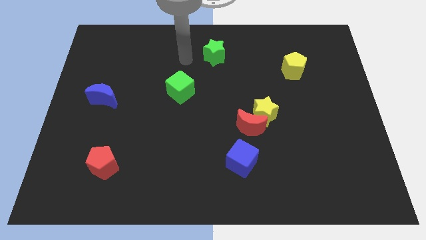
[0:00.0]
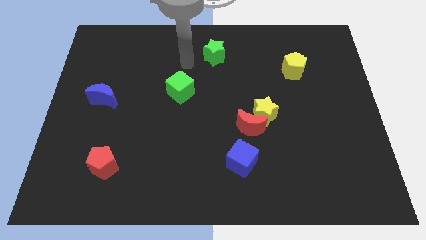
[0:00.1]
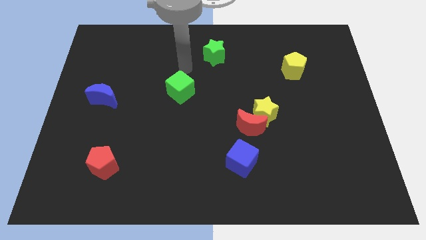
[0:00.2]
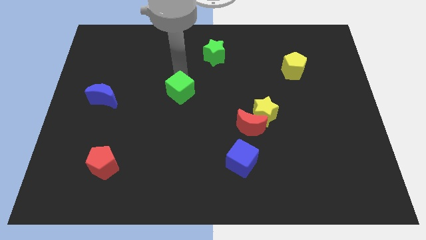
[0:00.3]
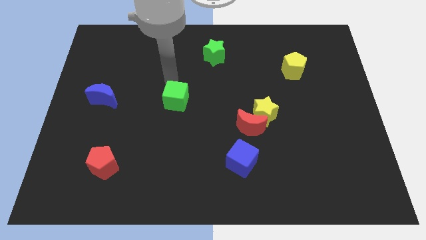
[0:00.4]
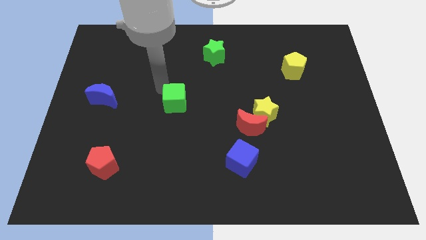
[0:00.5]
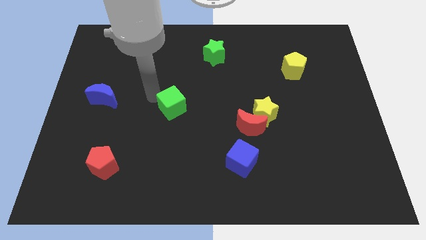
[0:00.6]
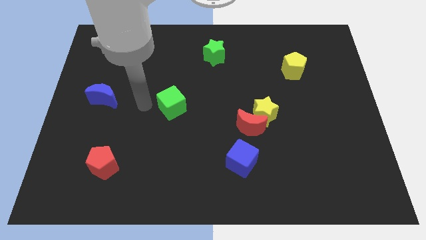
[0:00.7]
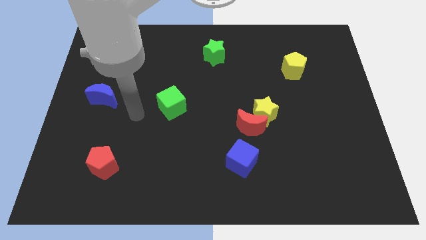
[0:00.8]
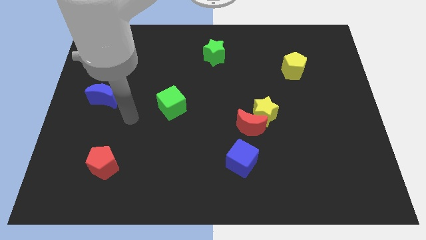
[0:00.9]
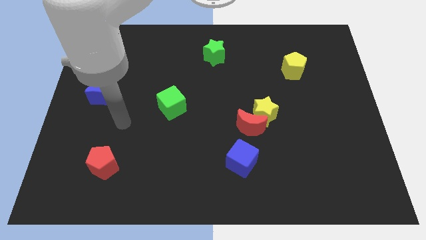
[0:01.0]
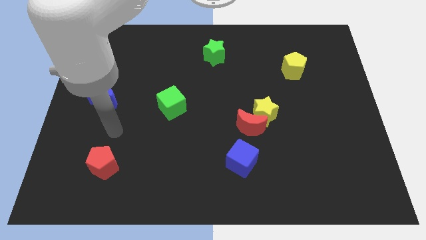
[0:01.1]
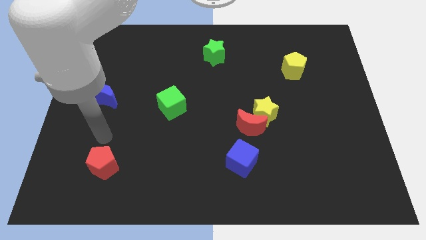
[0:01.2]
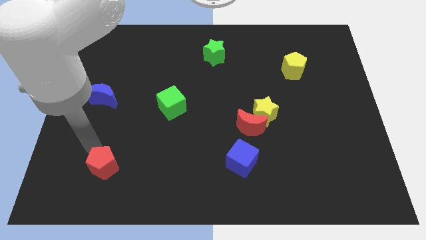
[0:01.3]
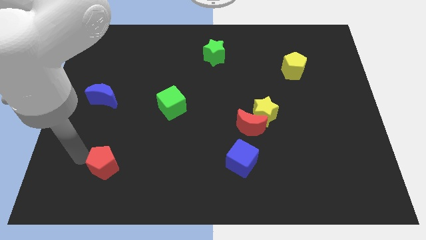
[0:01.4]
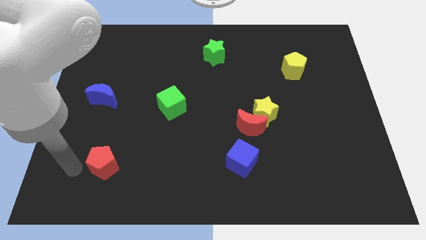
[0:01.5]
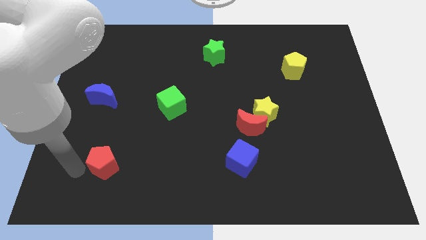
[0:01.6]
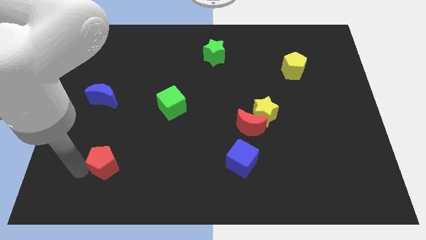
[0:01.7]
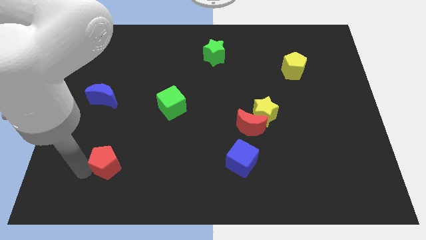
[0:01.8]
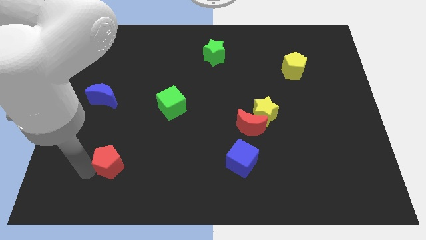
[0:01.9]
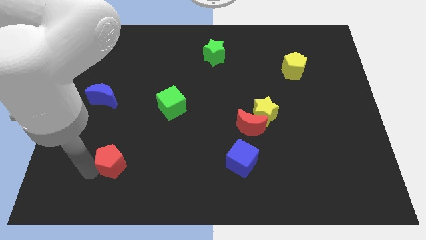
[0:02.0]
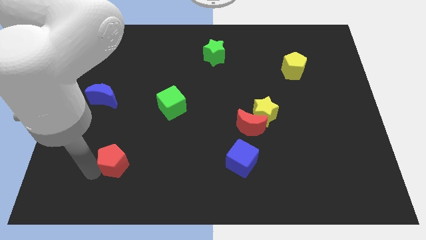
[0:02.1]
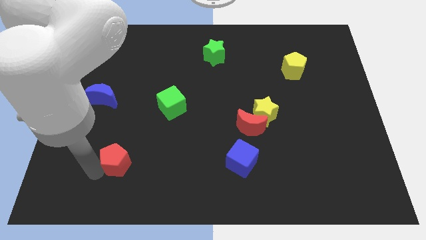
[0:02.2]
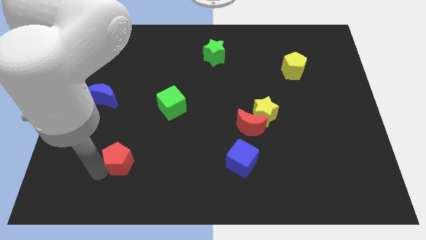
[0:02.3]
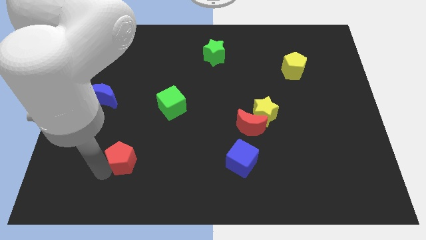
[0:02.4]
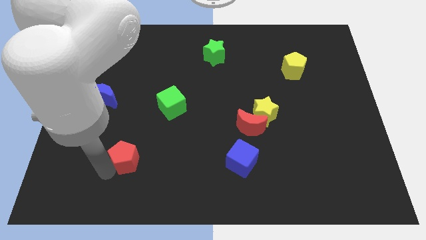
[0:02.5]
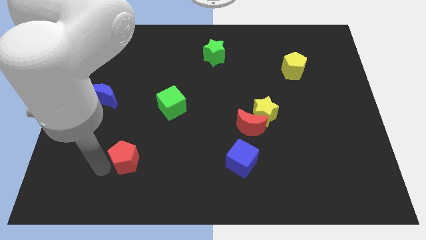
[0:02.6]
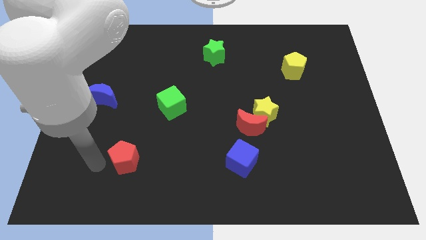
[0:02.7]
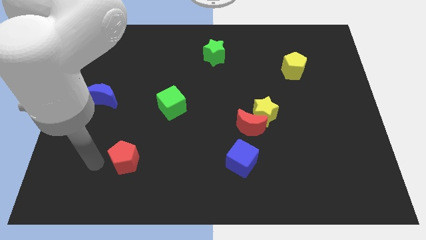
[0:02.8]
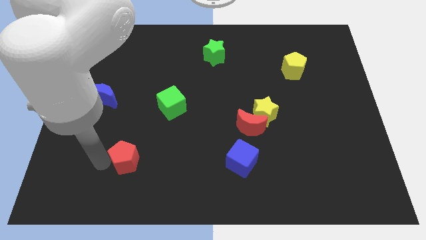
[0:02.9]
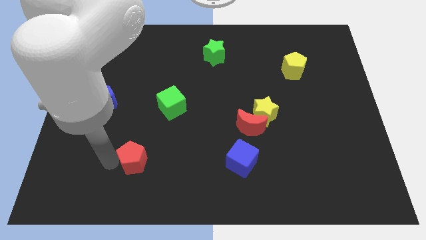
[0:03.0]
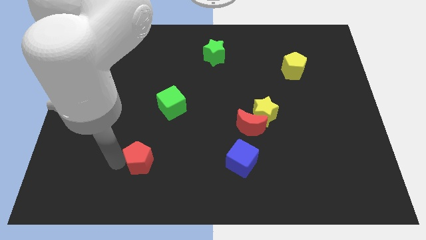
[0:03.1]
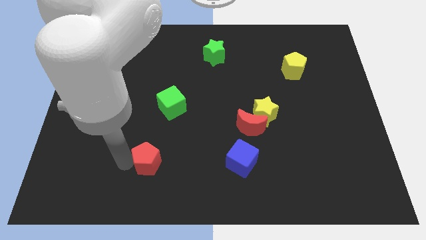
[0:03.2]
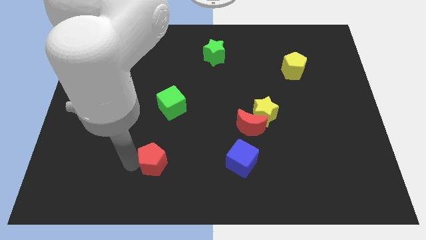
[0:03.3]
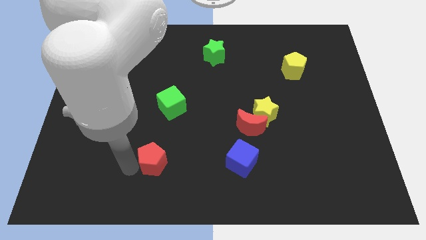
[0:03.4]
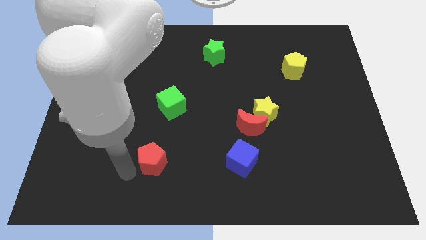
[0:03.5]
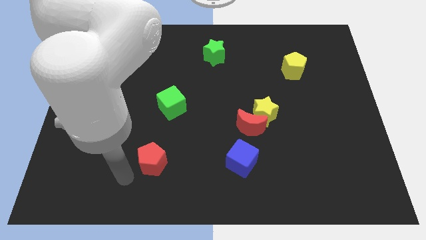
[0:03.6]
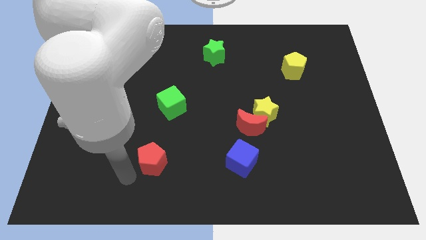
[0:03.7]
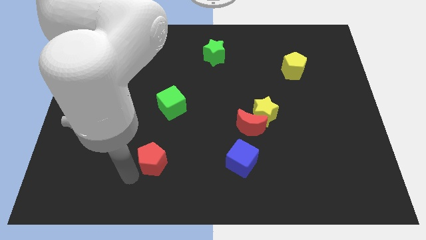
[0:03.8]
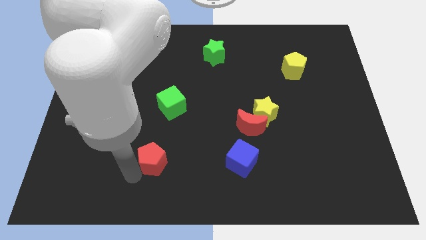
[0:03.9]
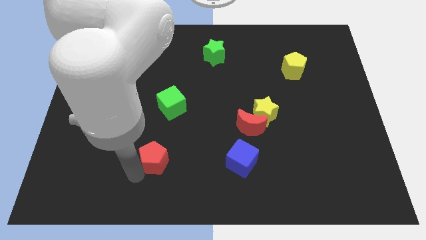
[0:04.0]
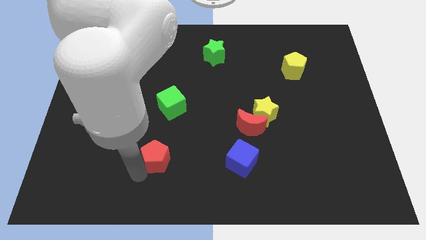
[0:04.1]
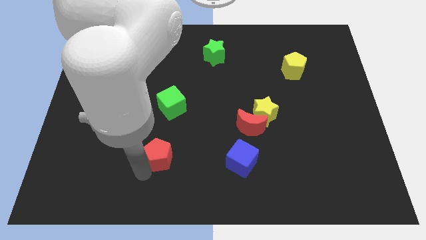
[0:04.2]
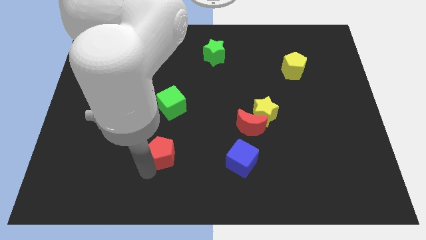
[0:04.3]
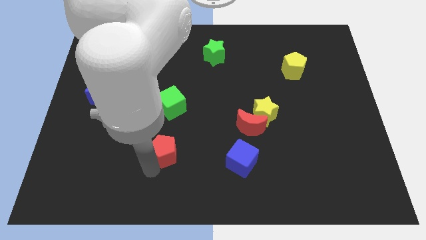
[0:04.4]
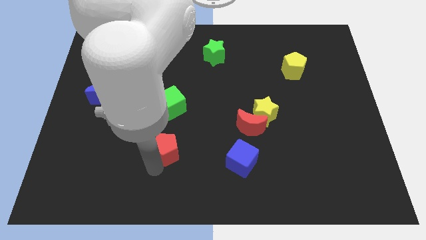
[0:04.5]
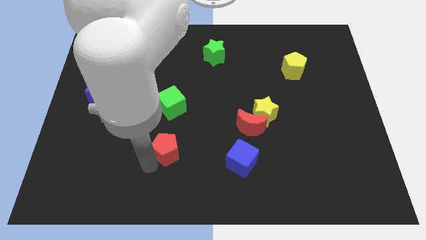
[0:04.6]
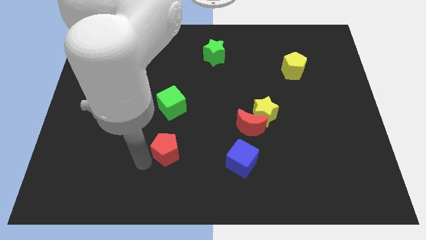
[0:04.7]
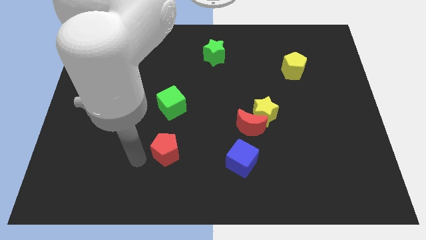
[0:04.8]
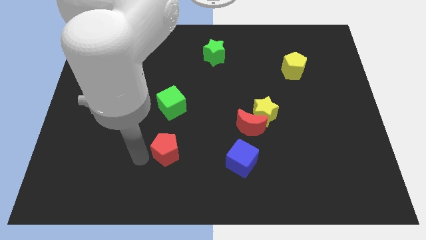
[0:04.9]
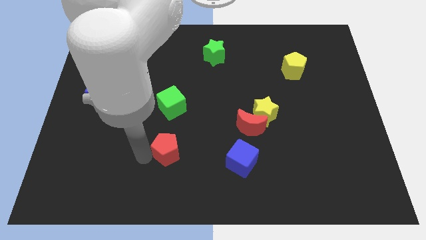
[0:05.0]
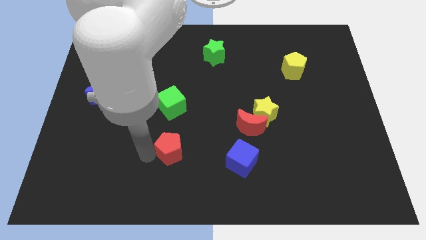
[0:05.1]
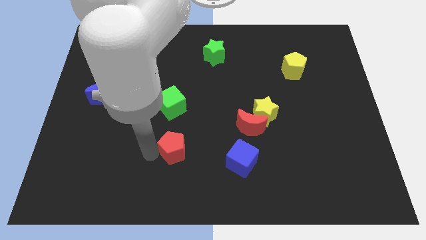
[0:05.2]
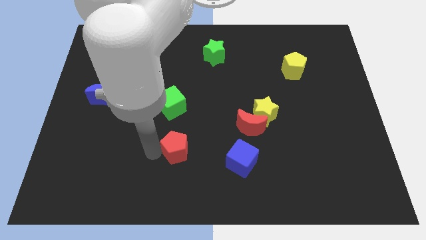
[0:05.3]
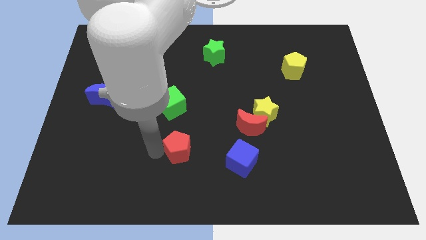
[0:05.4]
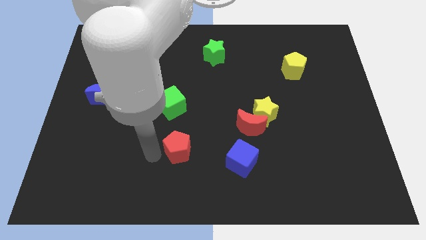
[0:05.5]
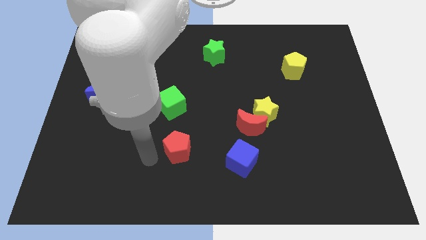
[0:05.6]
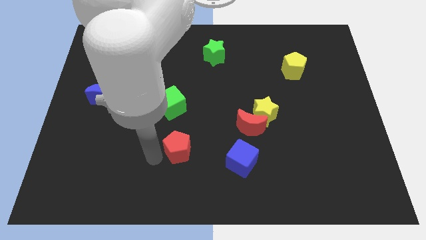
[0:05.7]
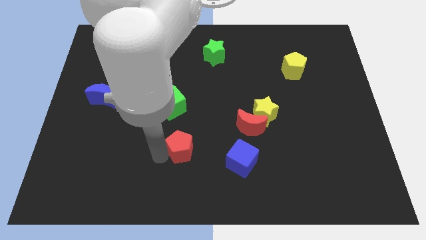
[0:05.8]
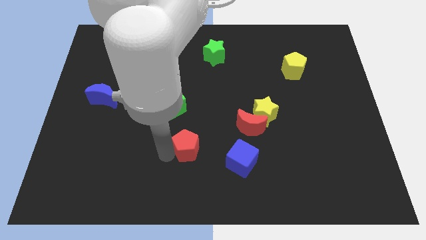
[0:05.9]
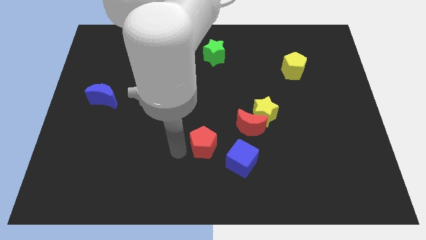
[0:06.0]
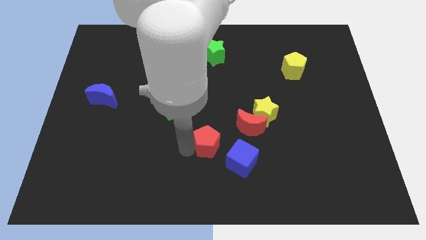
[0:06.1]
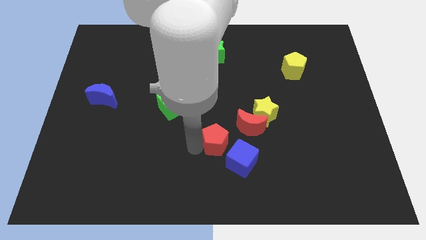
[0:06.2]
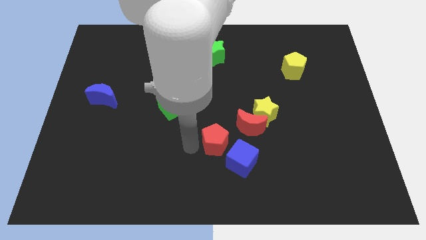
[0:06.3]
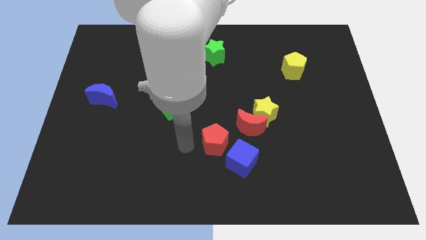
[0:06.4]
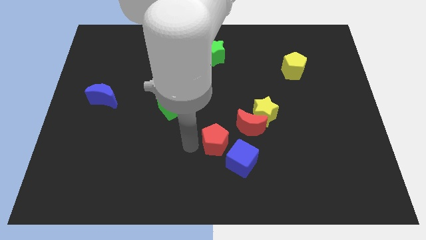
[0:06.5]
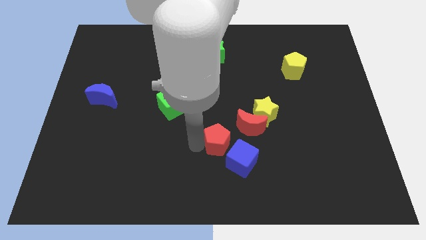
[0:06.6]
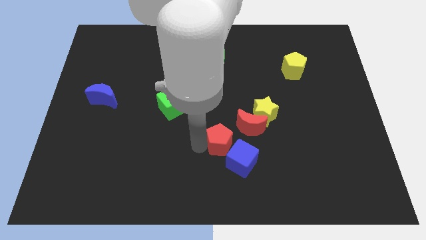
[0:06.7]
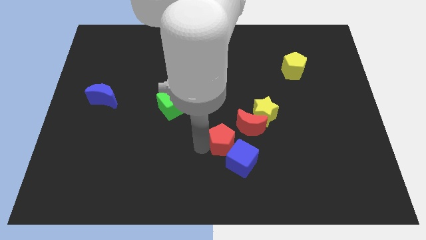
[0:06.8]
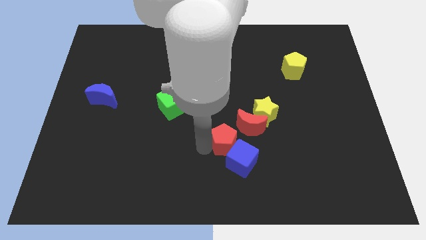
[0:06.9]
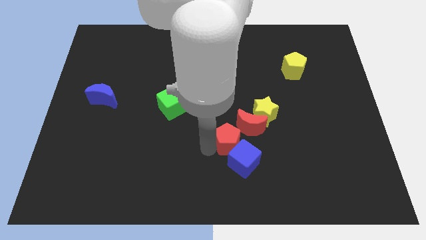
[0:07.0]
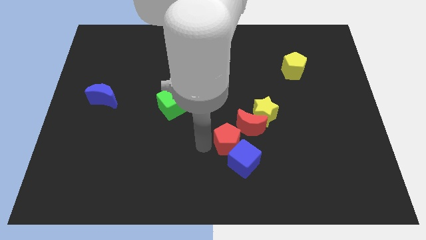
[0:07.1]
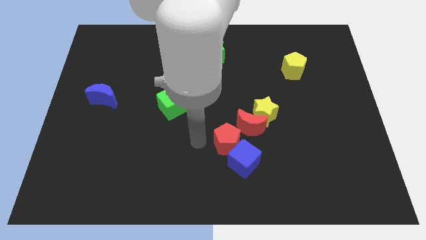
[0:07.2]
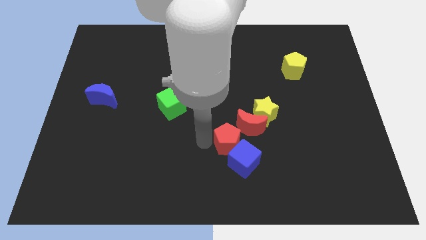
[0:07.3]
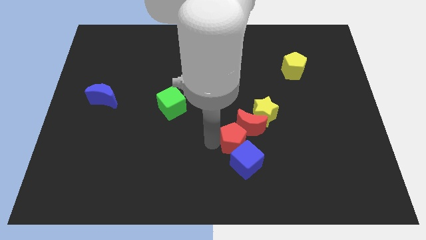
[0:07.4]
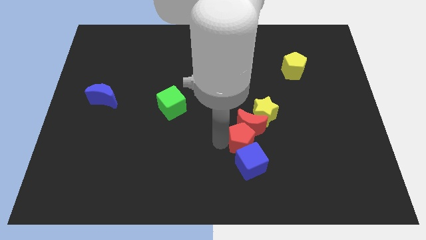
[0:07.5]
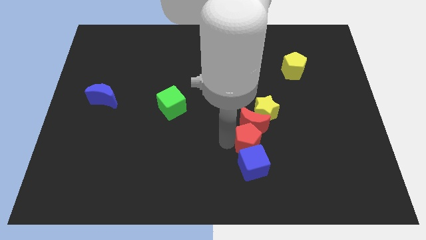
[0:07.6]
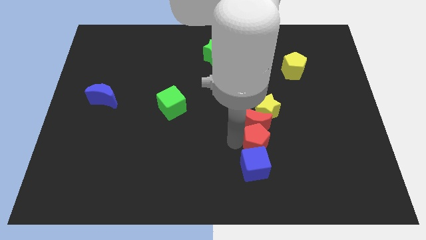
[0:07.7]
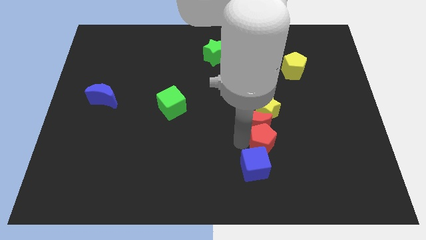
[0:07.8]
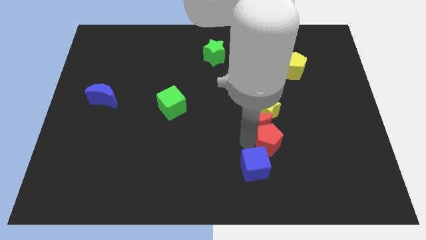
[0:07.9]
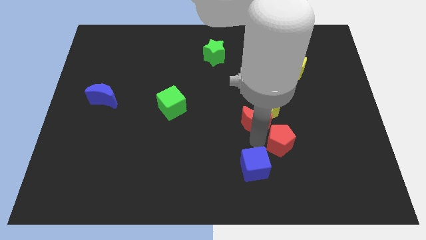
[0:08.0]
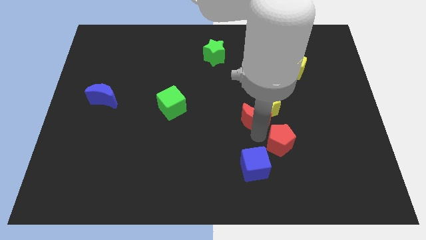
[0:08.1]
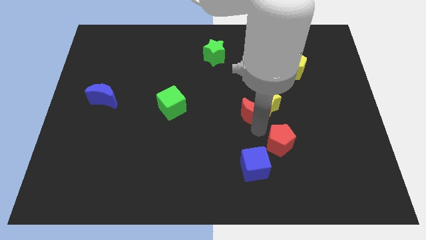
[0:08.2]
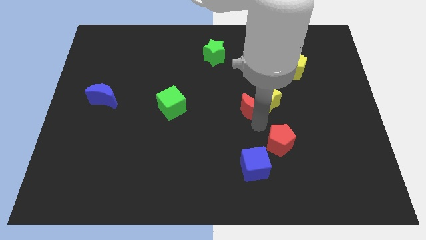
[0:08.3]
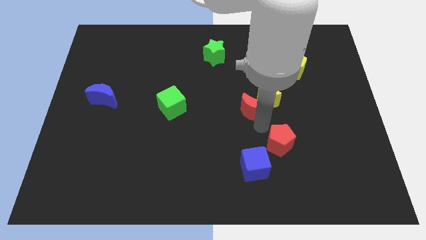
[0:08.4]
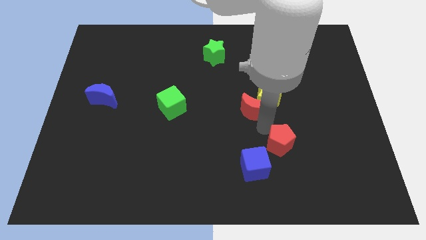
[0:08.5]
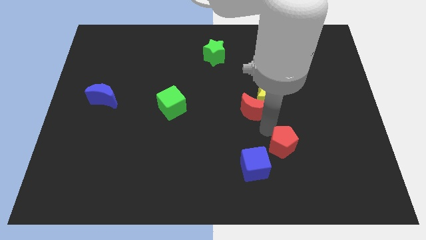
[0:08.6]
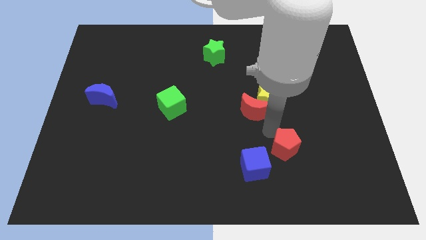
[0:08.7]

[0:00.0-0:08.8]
push the red pentagon right of the blue cube
